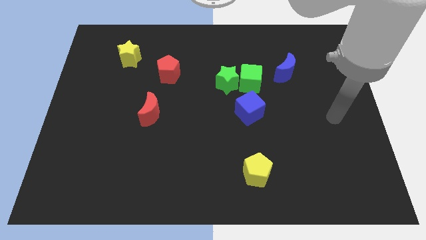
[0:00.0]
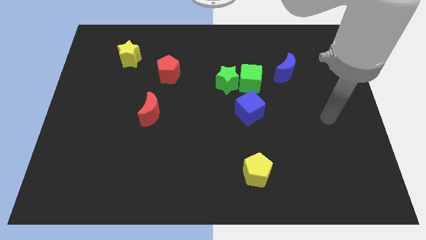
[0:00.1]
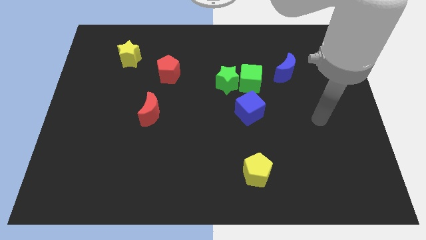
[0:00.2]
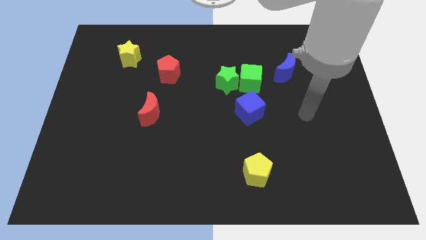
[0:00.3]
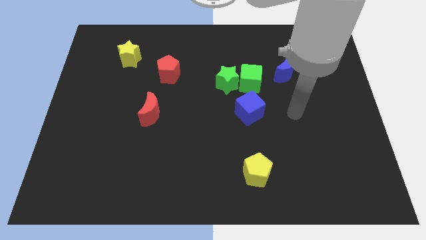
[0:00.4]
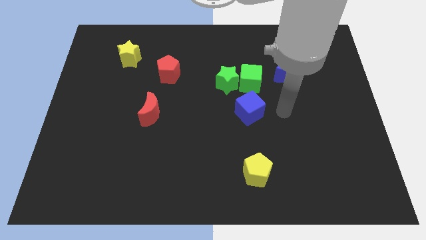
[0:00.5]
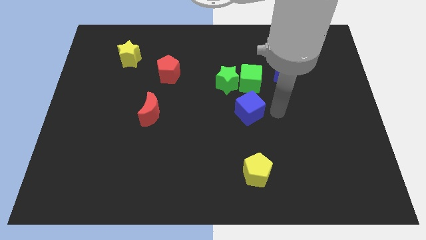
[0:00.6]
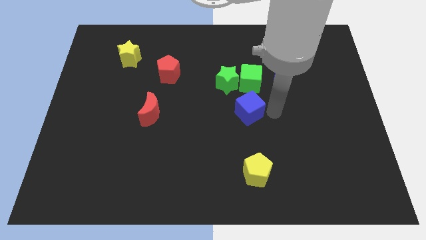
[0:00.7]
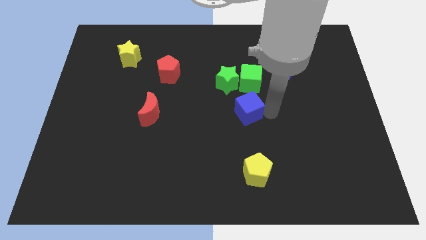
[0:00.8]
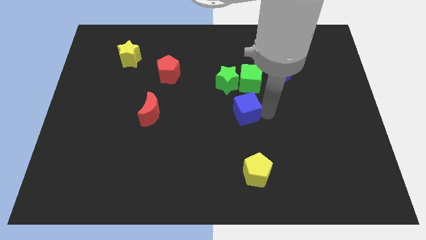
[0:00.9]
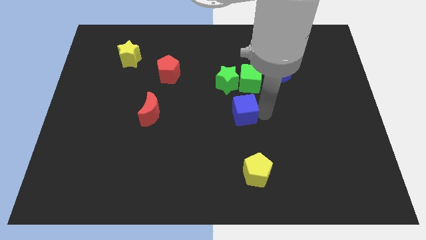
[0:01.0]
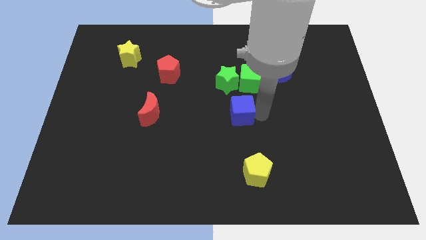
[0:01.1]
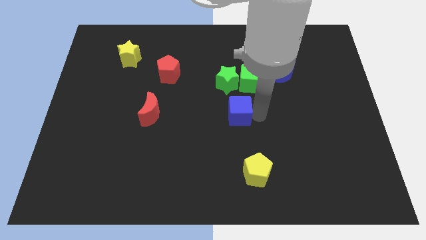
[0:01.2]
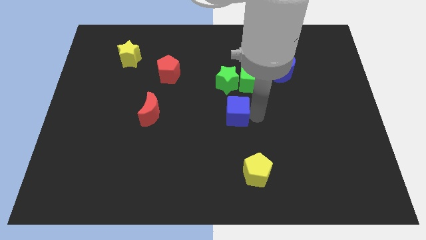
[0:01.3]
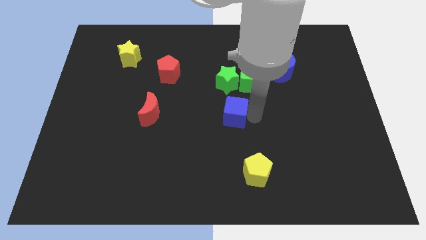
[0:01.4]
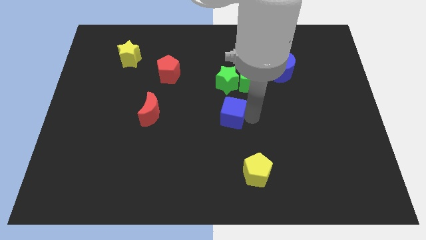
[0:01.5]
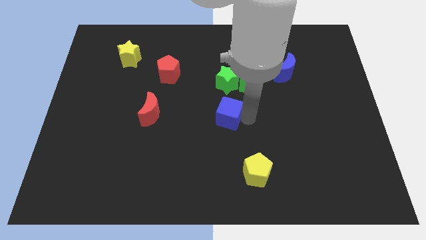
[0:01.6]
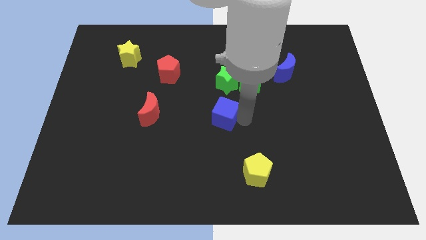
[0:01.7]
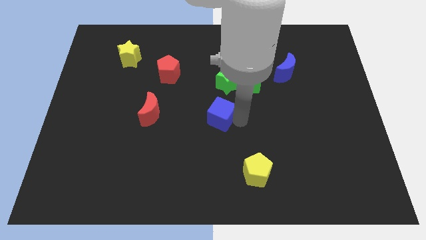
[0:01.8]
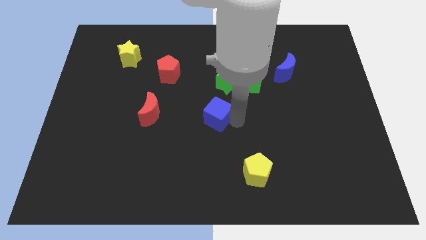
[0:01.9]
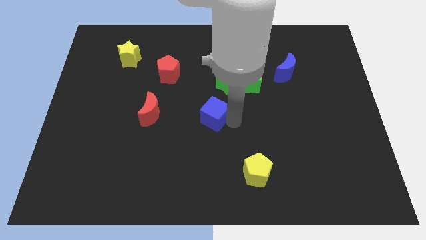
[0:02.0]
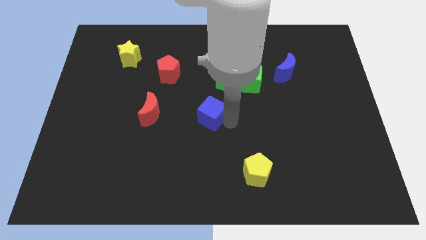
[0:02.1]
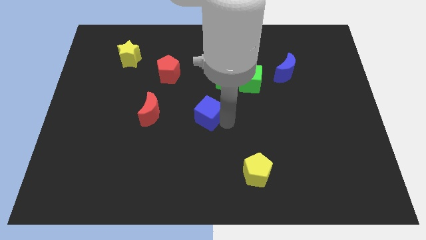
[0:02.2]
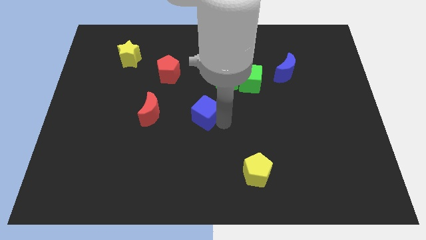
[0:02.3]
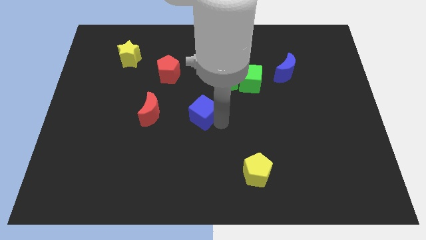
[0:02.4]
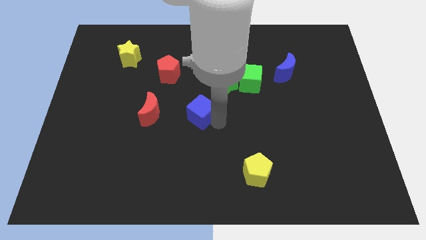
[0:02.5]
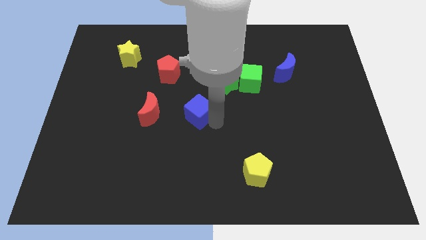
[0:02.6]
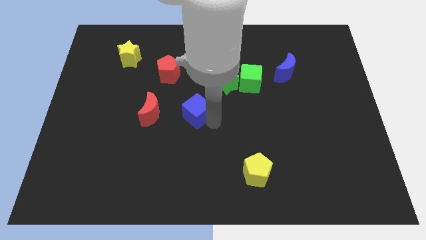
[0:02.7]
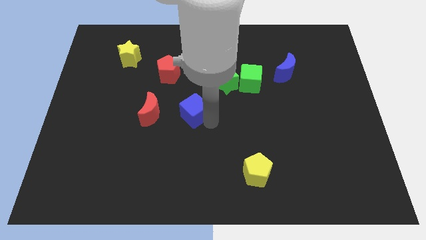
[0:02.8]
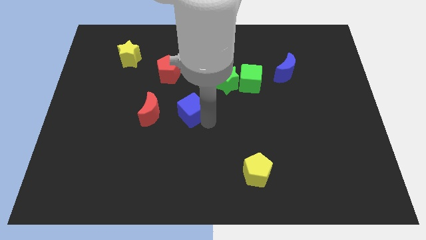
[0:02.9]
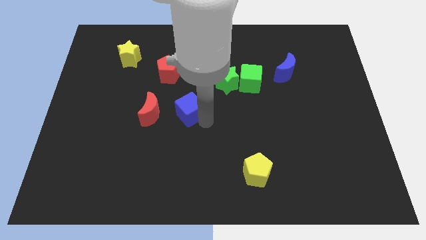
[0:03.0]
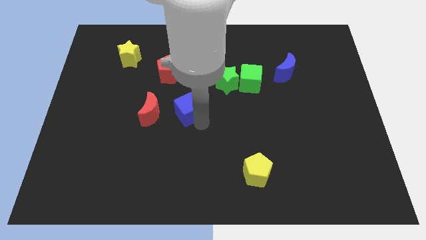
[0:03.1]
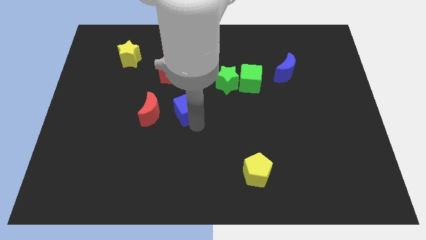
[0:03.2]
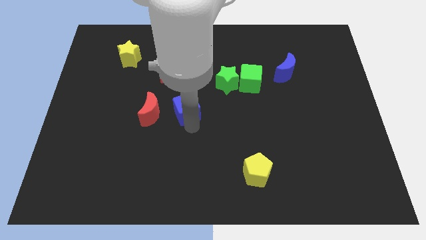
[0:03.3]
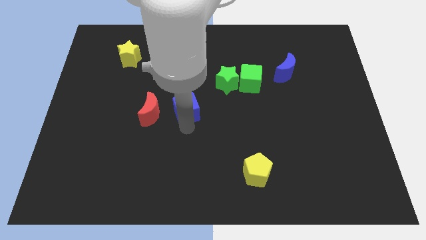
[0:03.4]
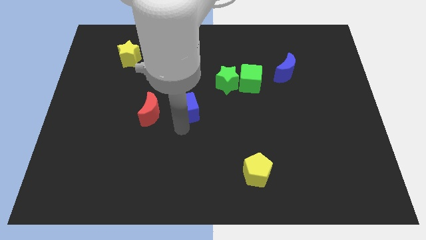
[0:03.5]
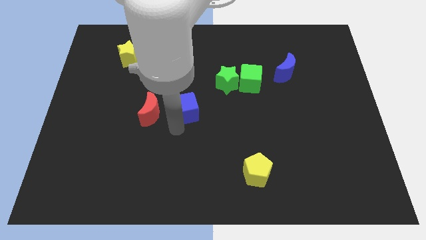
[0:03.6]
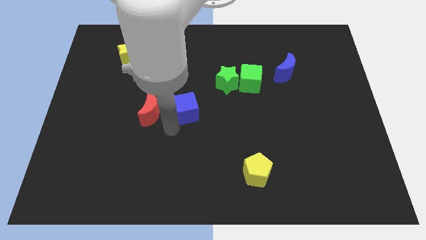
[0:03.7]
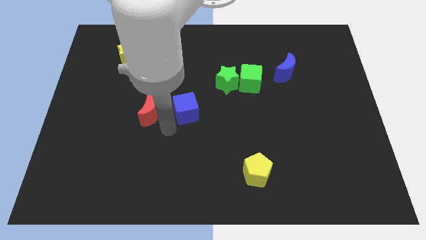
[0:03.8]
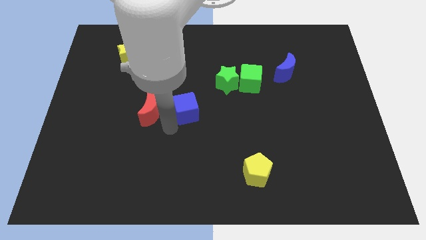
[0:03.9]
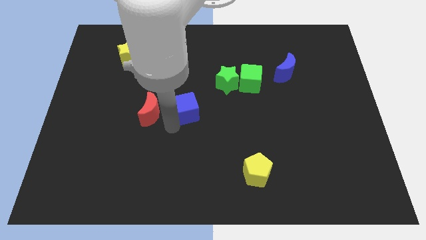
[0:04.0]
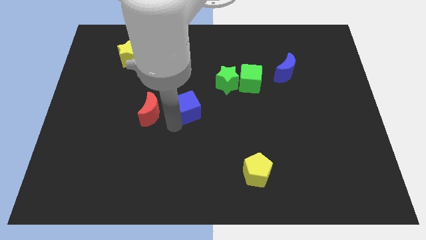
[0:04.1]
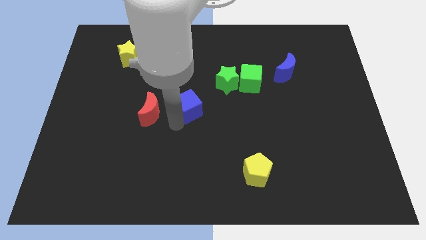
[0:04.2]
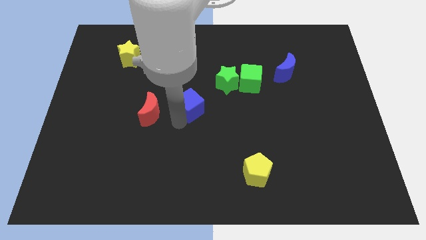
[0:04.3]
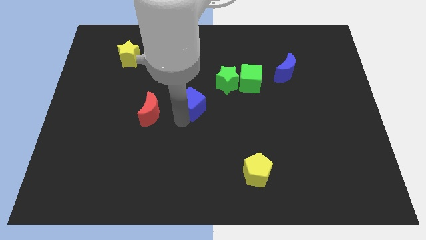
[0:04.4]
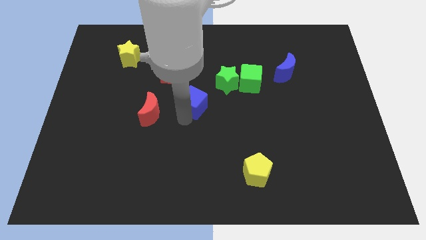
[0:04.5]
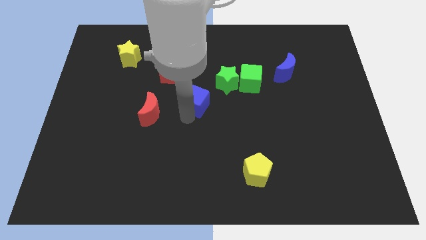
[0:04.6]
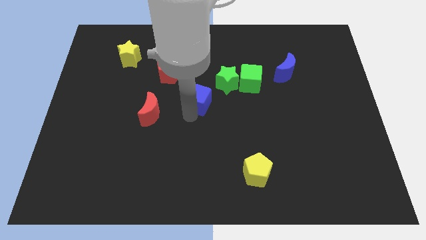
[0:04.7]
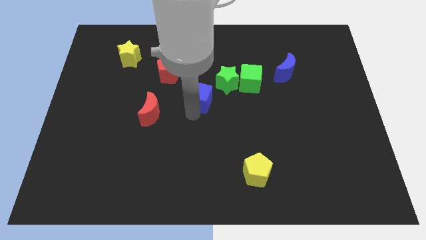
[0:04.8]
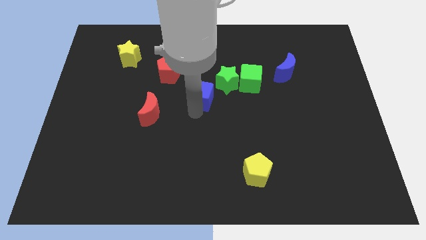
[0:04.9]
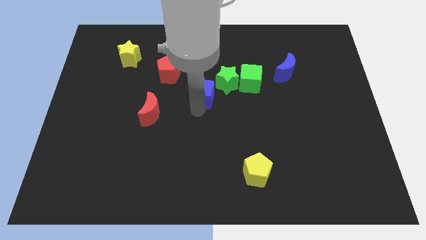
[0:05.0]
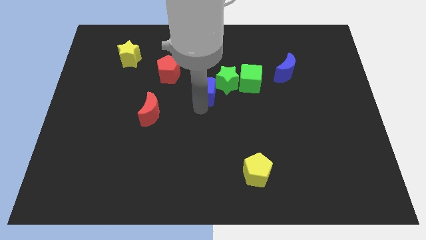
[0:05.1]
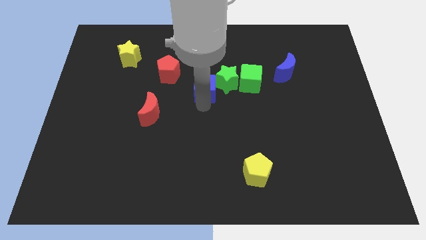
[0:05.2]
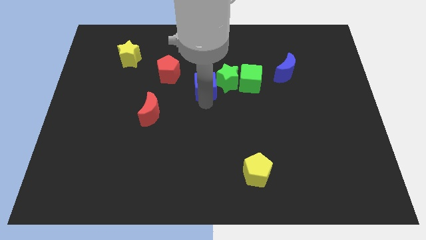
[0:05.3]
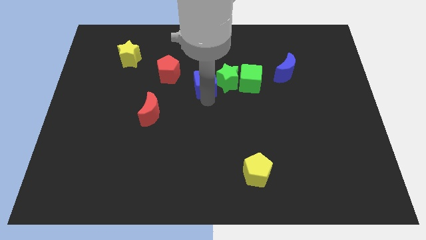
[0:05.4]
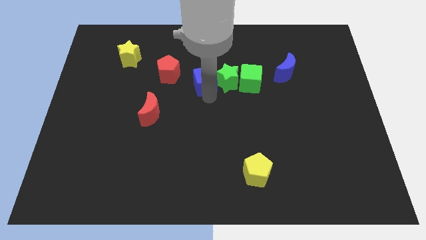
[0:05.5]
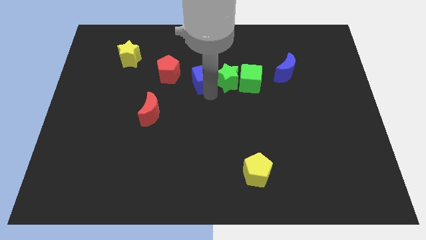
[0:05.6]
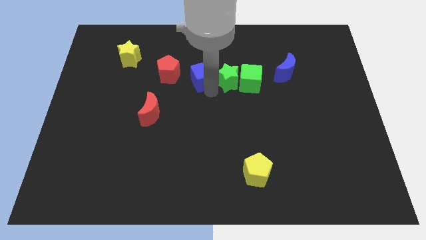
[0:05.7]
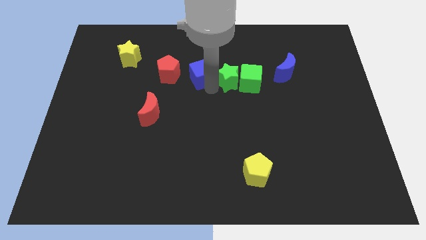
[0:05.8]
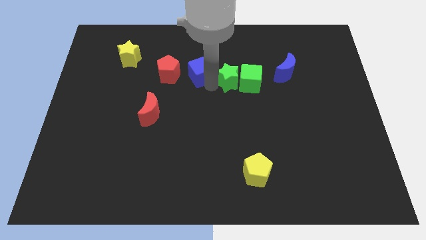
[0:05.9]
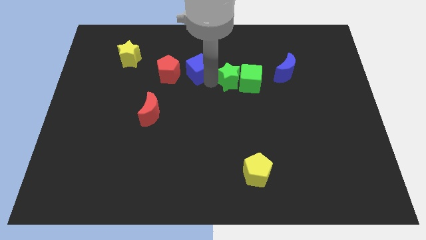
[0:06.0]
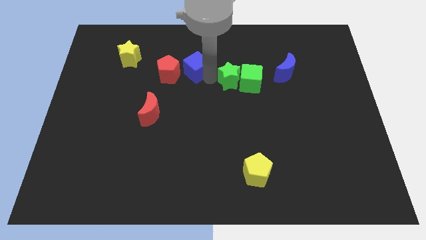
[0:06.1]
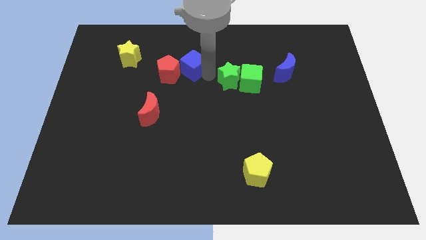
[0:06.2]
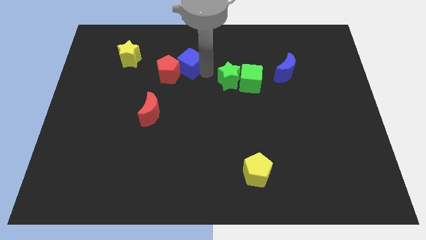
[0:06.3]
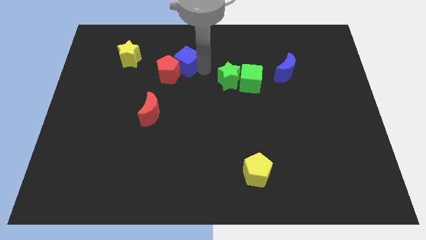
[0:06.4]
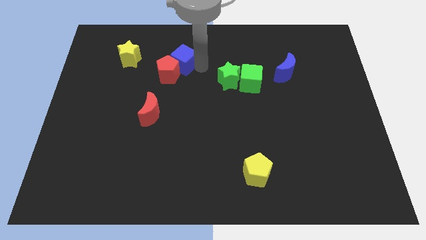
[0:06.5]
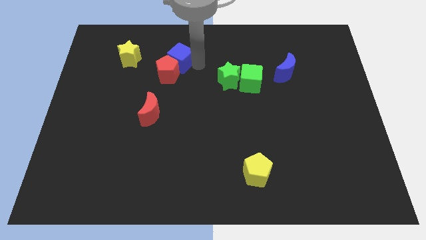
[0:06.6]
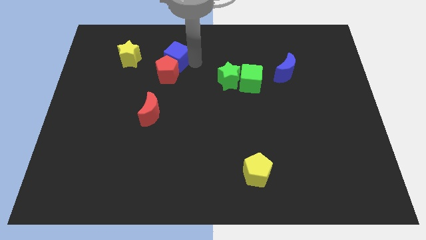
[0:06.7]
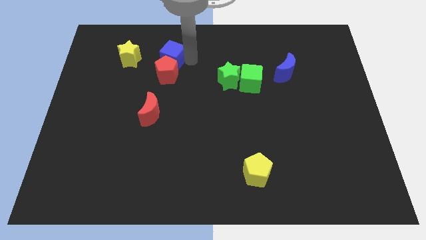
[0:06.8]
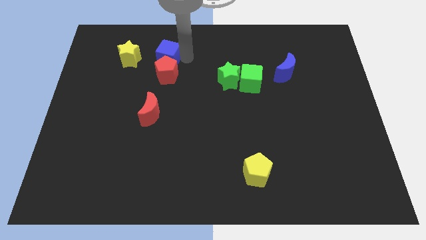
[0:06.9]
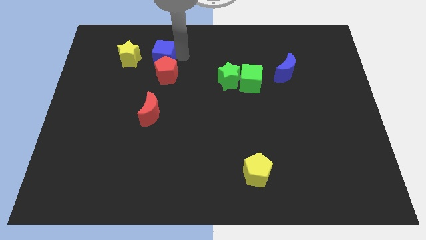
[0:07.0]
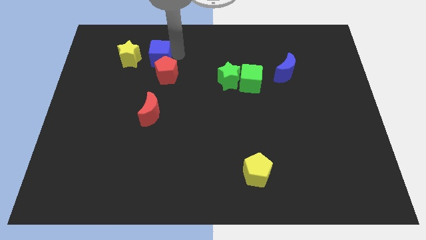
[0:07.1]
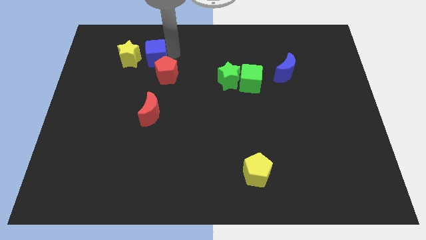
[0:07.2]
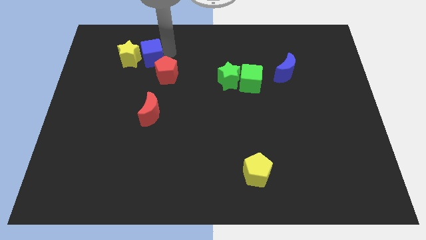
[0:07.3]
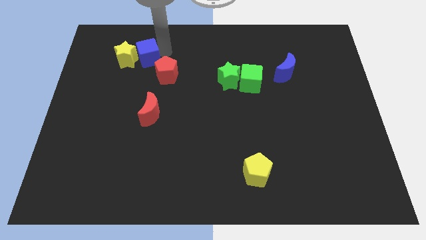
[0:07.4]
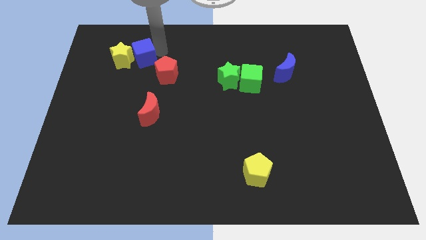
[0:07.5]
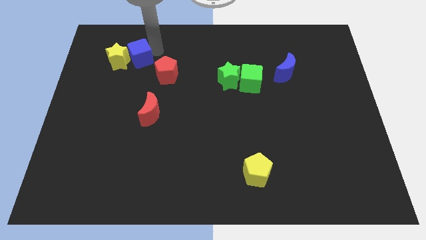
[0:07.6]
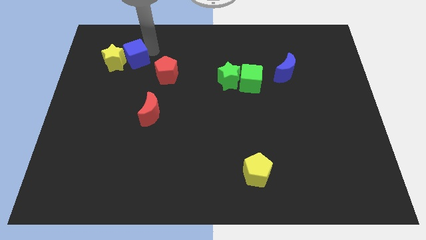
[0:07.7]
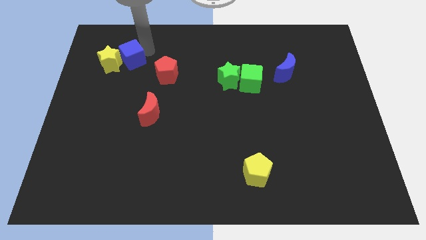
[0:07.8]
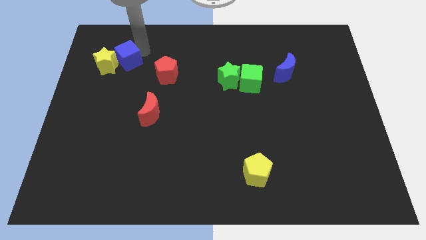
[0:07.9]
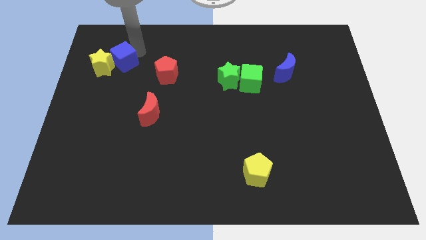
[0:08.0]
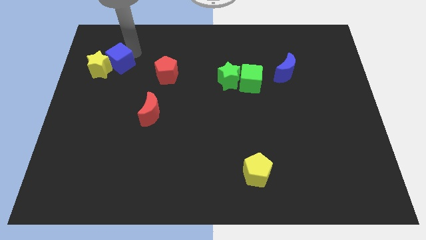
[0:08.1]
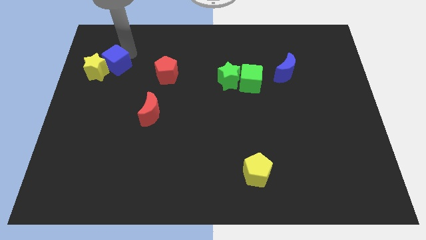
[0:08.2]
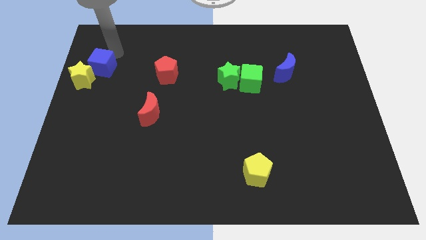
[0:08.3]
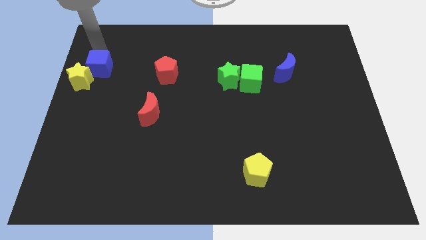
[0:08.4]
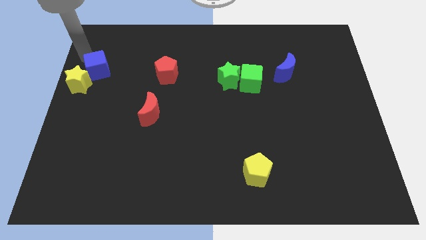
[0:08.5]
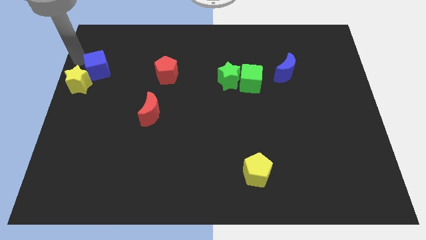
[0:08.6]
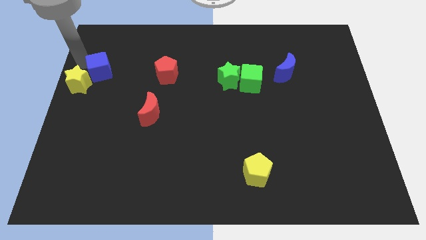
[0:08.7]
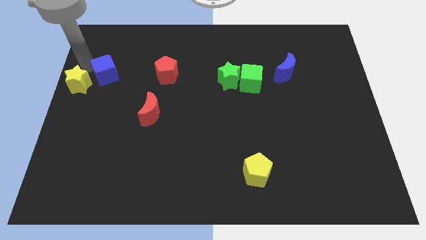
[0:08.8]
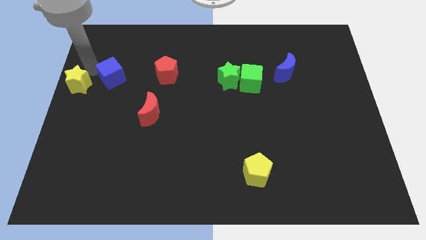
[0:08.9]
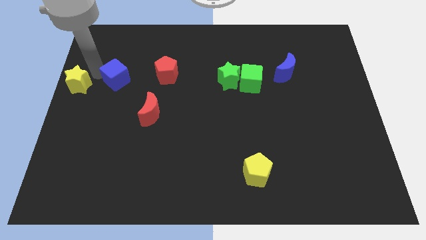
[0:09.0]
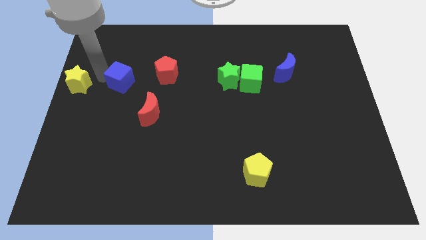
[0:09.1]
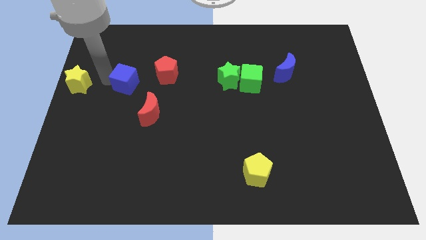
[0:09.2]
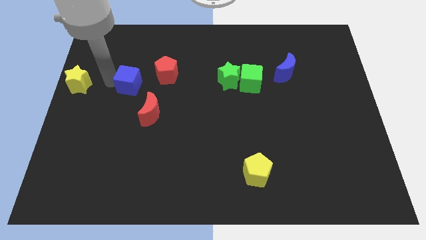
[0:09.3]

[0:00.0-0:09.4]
slide the blue cube diagonally down and to the left of the red pentagon
